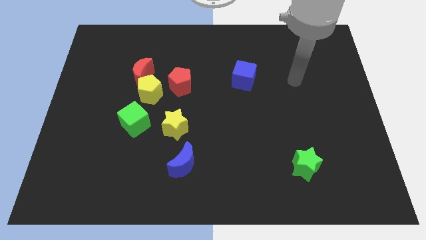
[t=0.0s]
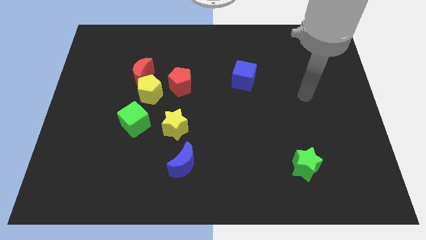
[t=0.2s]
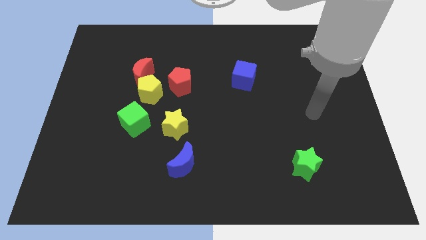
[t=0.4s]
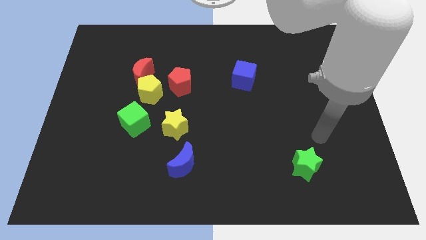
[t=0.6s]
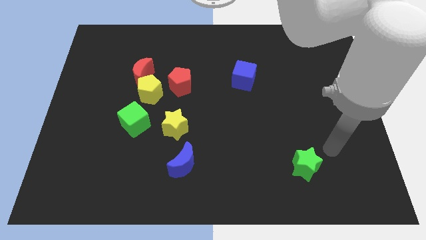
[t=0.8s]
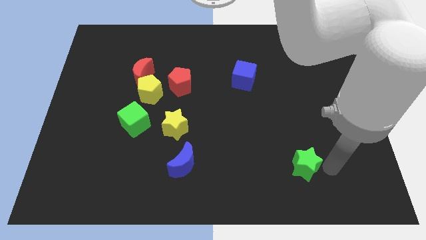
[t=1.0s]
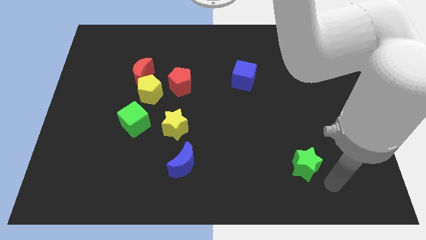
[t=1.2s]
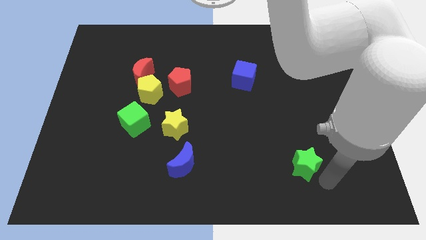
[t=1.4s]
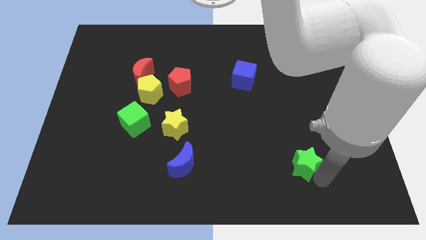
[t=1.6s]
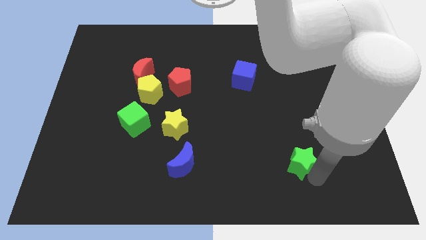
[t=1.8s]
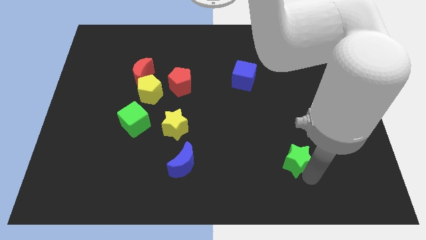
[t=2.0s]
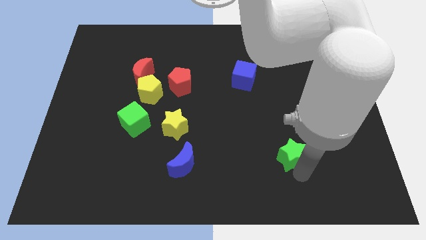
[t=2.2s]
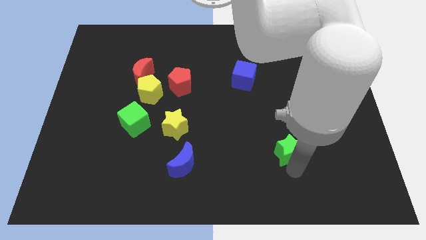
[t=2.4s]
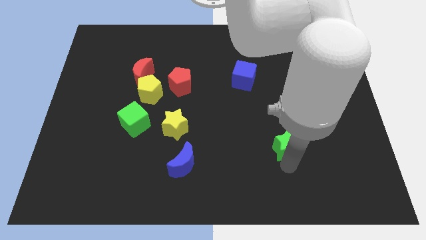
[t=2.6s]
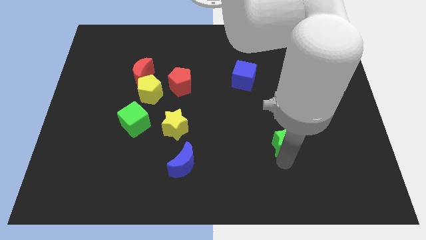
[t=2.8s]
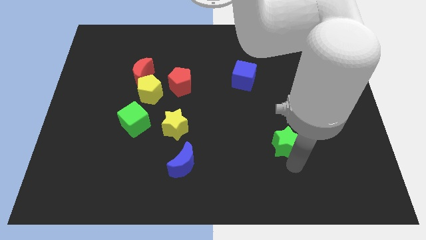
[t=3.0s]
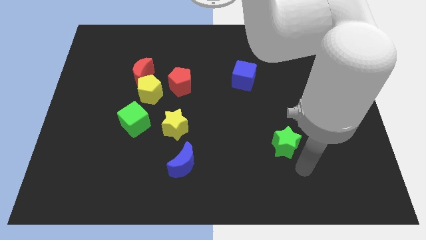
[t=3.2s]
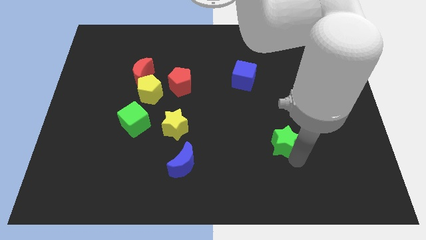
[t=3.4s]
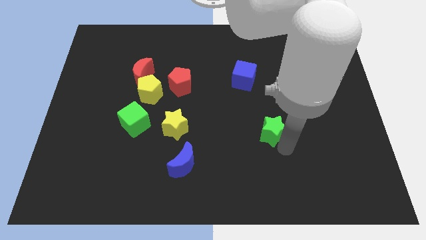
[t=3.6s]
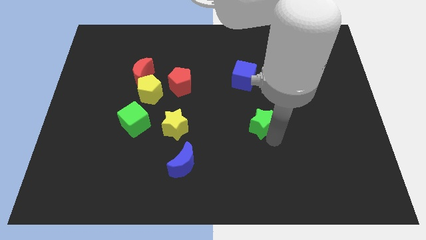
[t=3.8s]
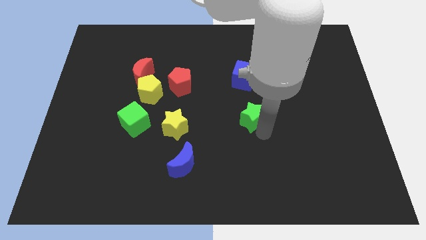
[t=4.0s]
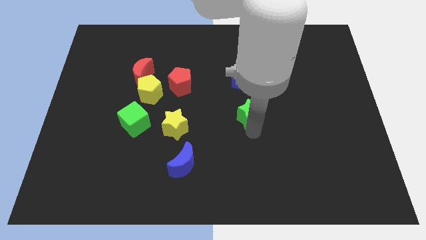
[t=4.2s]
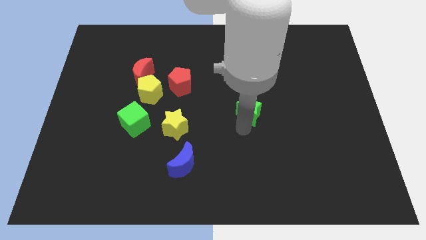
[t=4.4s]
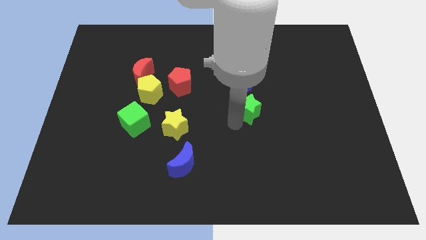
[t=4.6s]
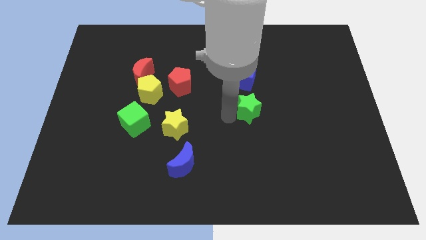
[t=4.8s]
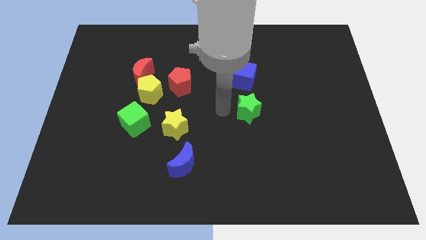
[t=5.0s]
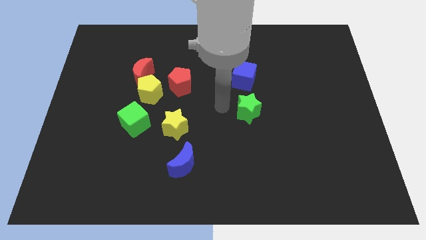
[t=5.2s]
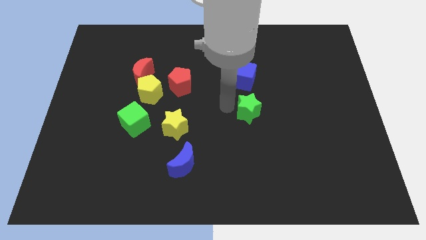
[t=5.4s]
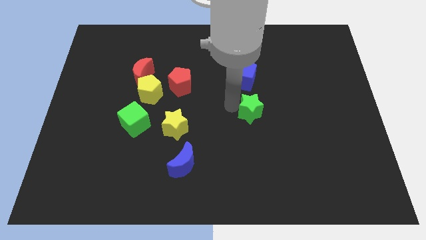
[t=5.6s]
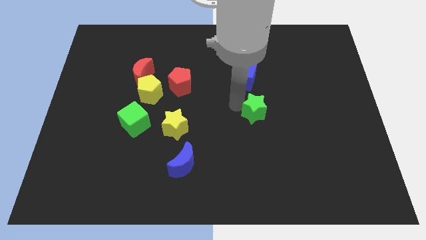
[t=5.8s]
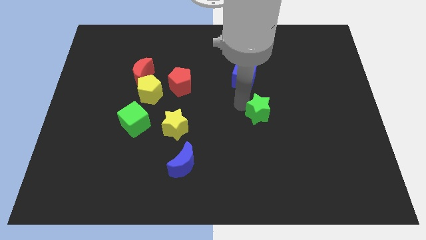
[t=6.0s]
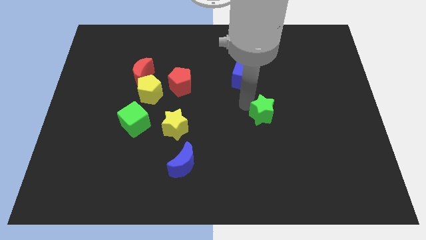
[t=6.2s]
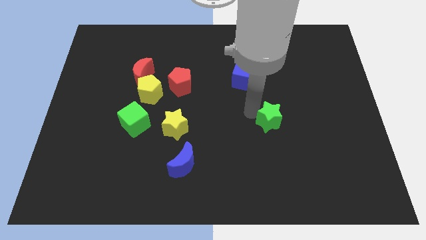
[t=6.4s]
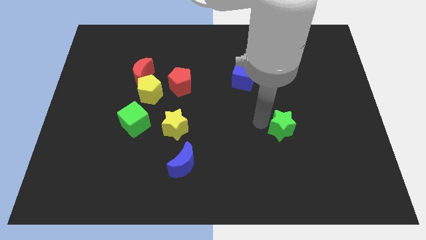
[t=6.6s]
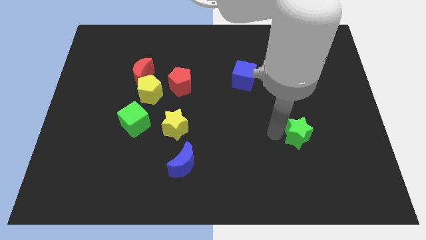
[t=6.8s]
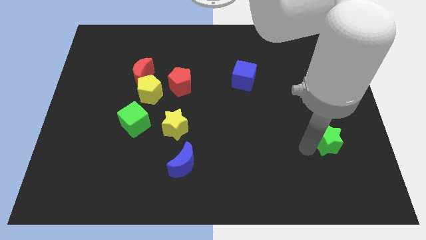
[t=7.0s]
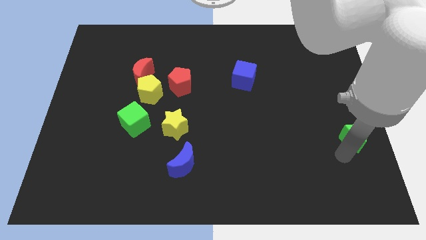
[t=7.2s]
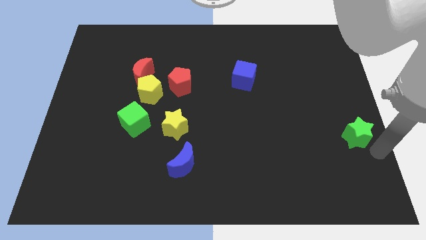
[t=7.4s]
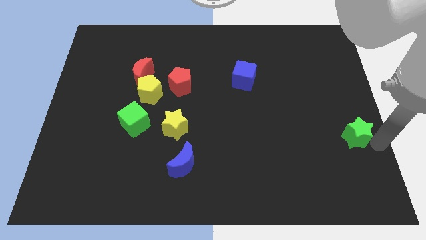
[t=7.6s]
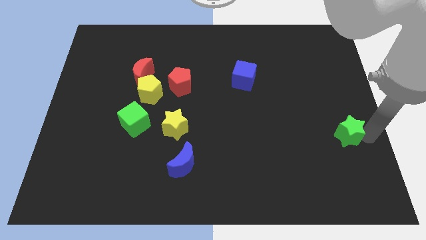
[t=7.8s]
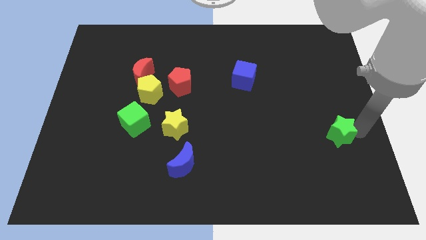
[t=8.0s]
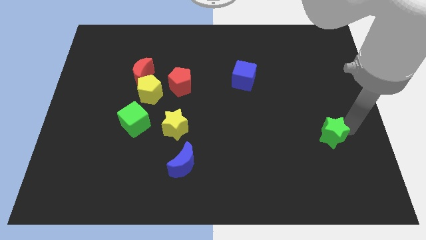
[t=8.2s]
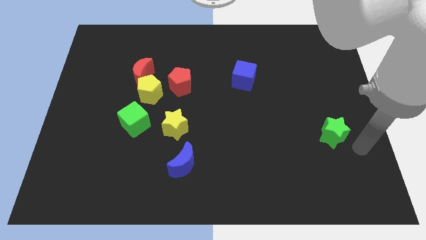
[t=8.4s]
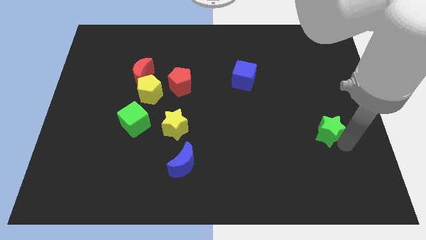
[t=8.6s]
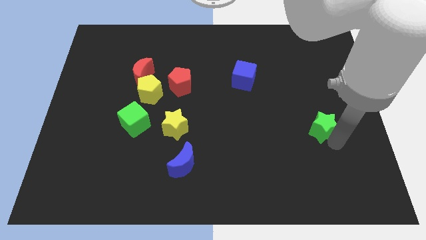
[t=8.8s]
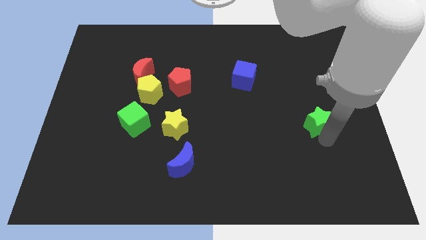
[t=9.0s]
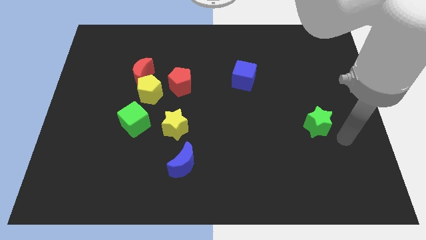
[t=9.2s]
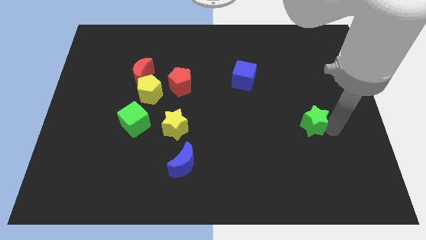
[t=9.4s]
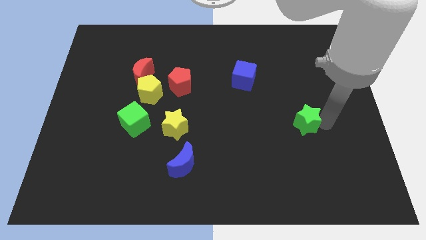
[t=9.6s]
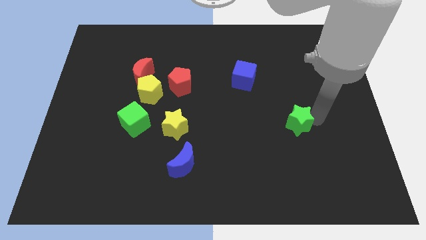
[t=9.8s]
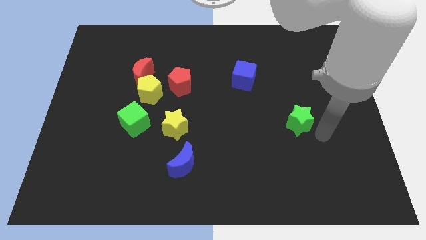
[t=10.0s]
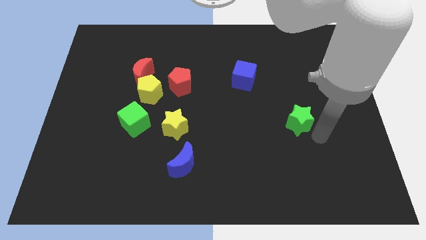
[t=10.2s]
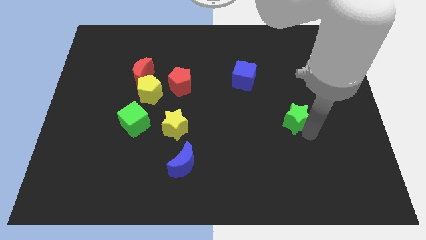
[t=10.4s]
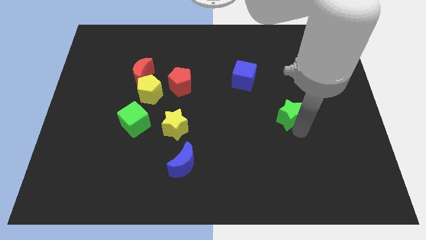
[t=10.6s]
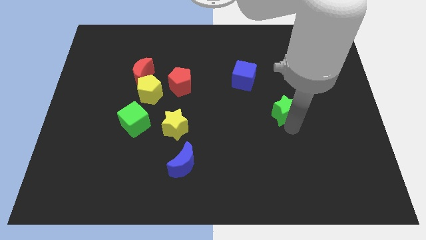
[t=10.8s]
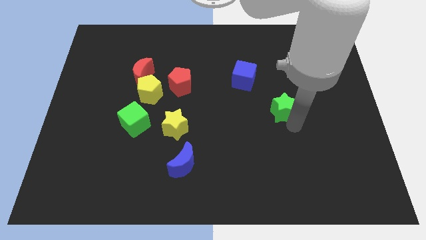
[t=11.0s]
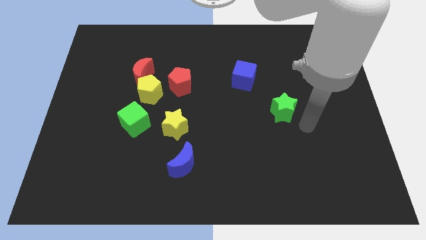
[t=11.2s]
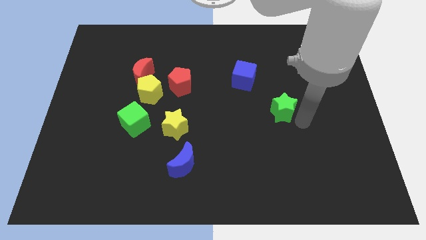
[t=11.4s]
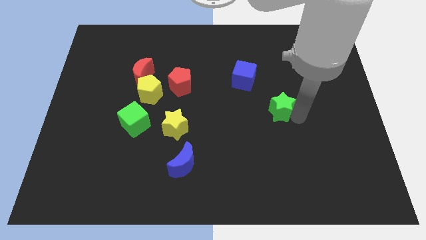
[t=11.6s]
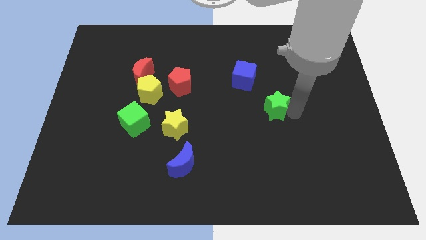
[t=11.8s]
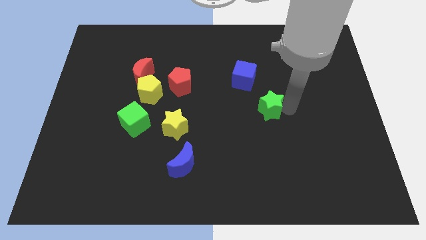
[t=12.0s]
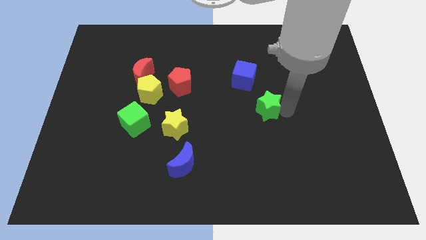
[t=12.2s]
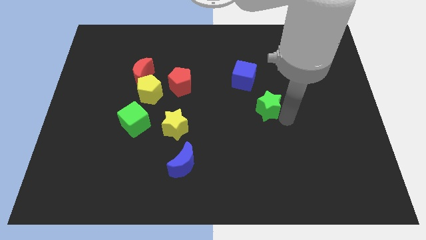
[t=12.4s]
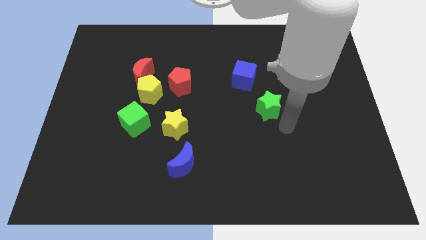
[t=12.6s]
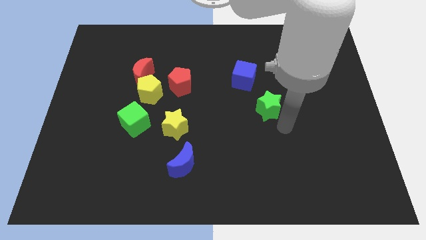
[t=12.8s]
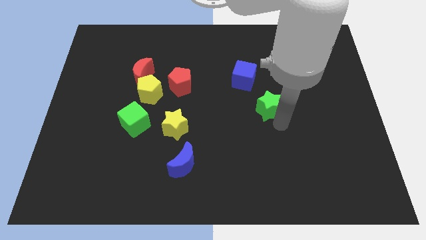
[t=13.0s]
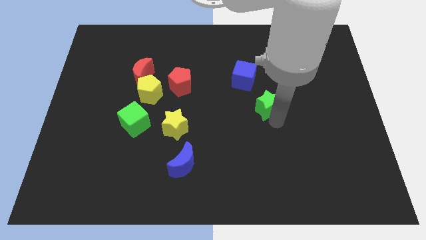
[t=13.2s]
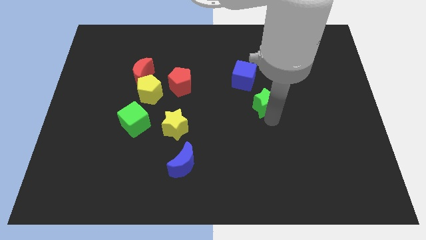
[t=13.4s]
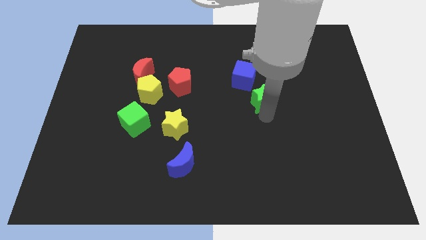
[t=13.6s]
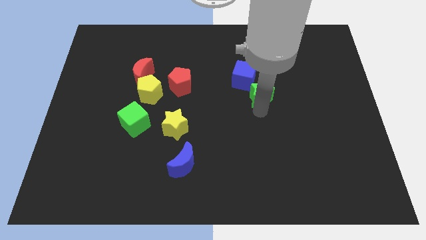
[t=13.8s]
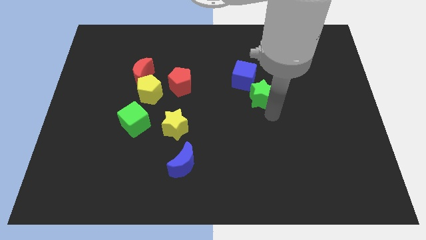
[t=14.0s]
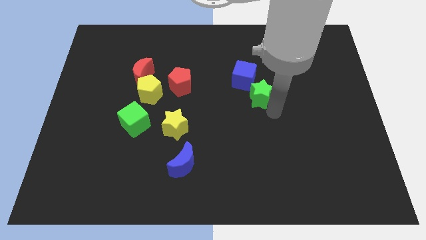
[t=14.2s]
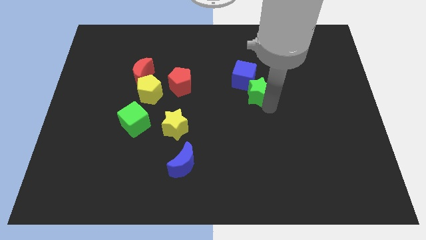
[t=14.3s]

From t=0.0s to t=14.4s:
move the green star towards the blue cube
